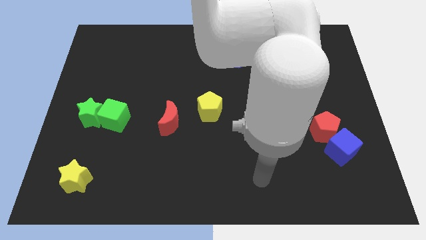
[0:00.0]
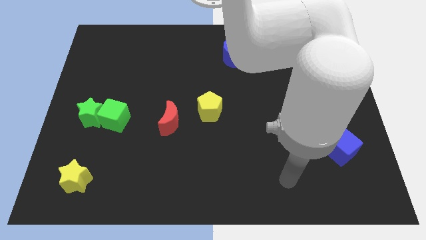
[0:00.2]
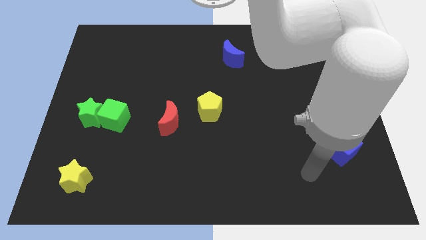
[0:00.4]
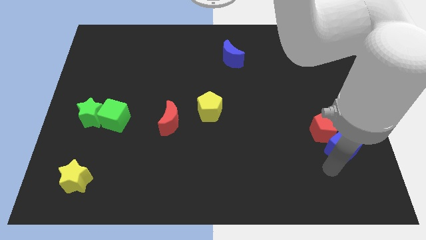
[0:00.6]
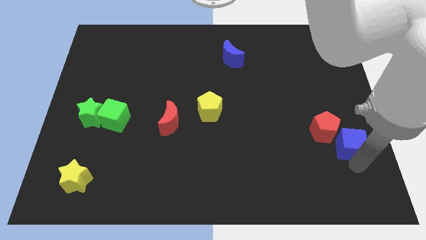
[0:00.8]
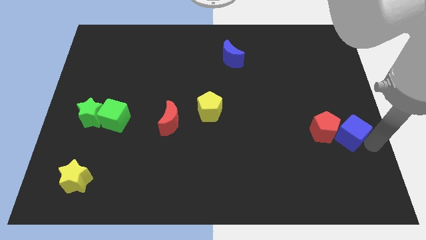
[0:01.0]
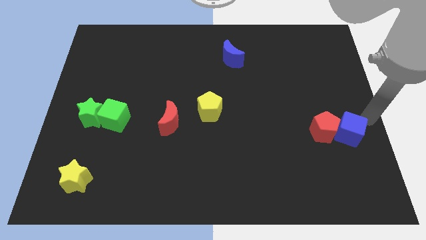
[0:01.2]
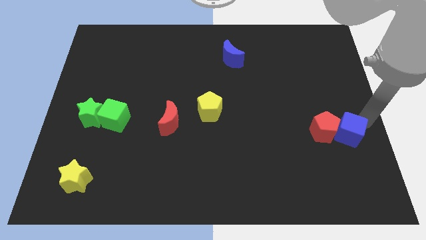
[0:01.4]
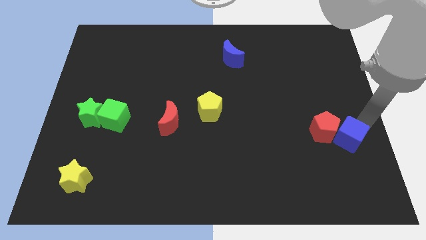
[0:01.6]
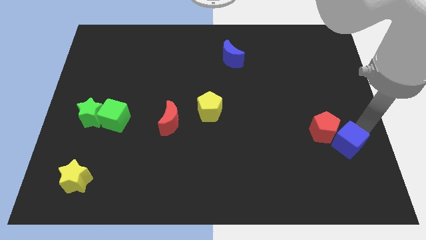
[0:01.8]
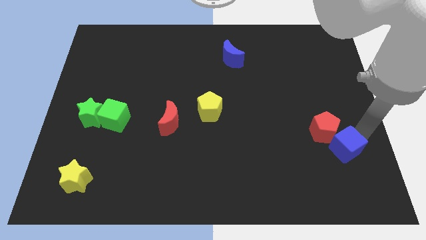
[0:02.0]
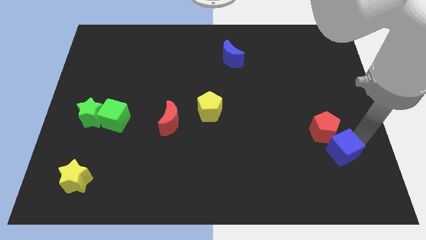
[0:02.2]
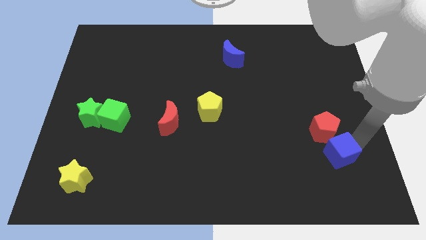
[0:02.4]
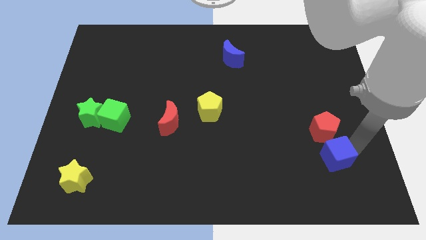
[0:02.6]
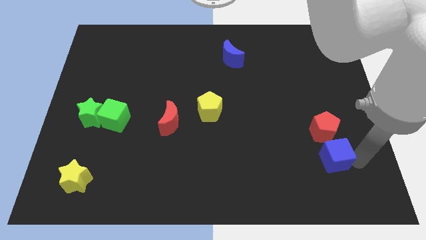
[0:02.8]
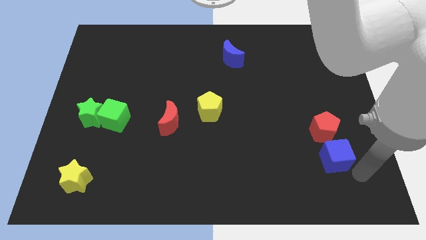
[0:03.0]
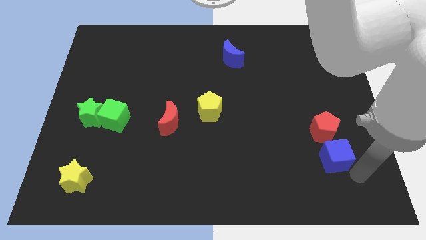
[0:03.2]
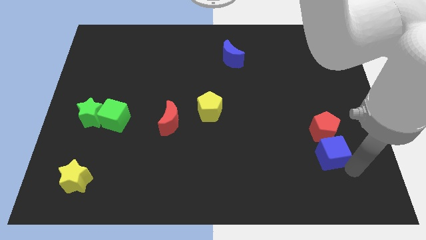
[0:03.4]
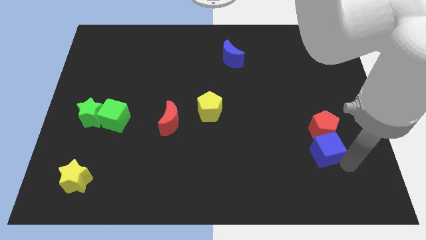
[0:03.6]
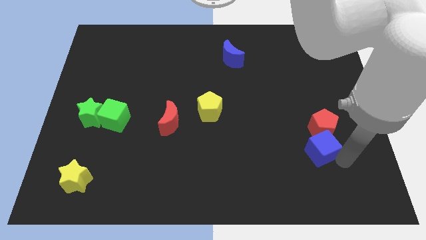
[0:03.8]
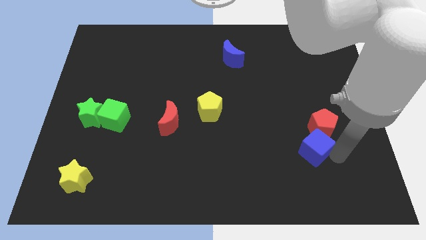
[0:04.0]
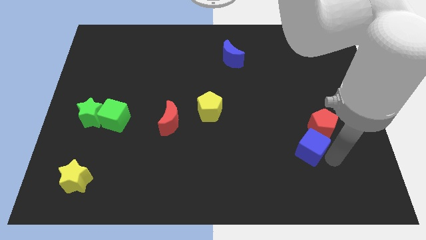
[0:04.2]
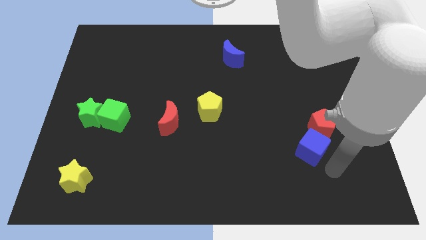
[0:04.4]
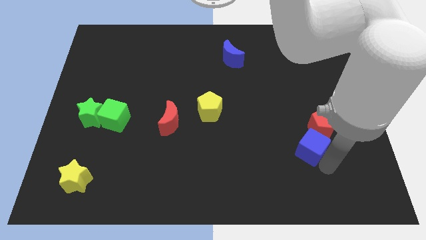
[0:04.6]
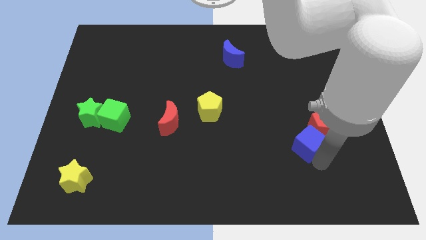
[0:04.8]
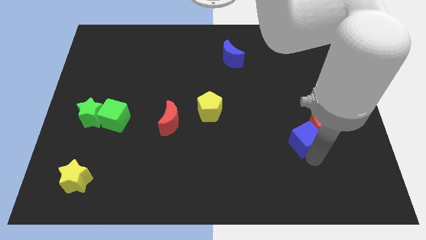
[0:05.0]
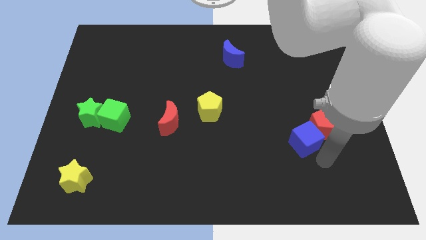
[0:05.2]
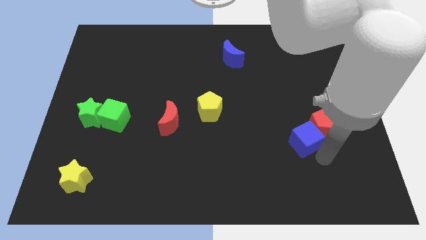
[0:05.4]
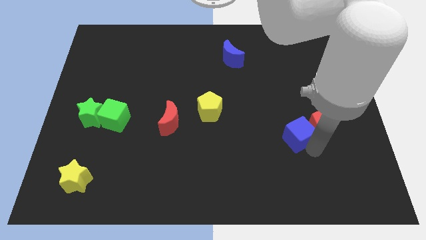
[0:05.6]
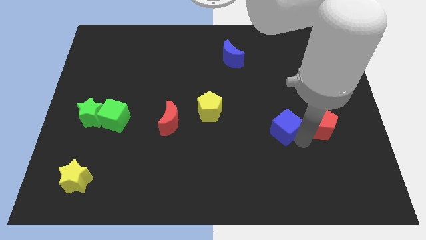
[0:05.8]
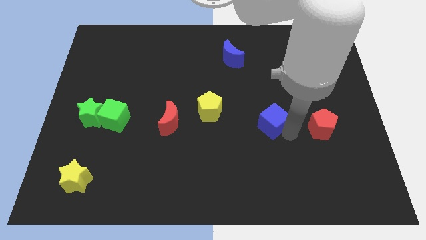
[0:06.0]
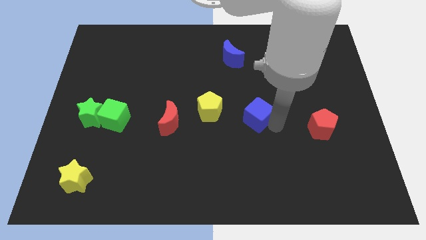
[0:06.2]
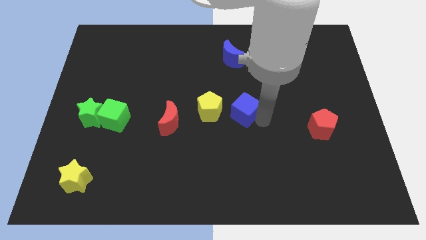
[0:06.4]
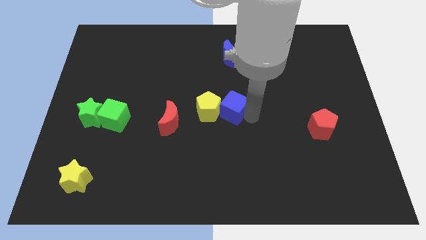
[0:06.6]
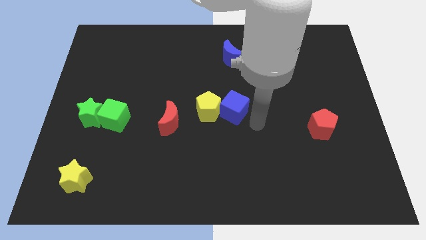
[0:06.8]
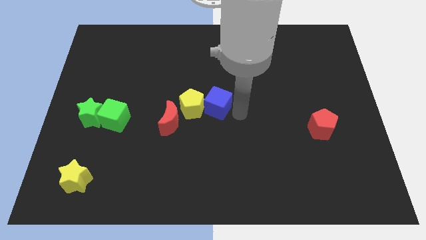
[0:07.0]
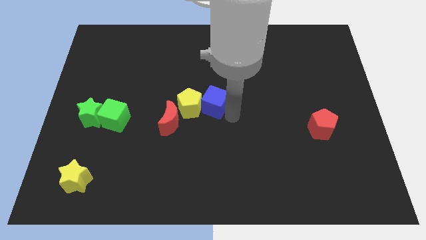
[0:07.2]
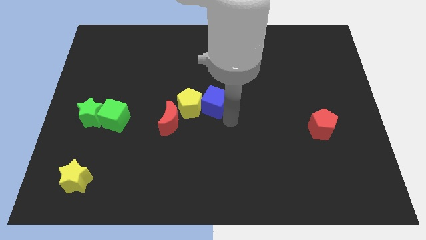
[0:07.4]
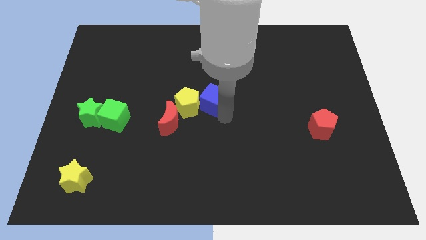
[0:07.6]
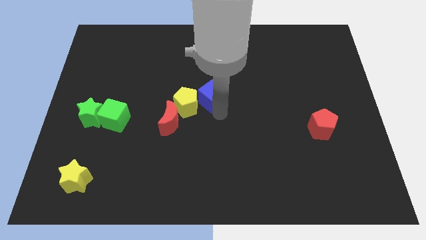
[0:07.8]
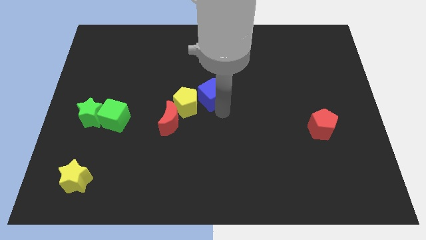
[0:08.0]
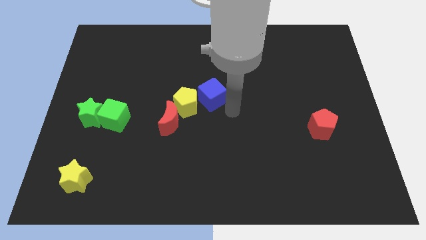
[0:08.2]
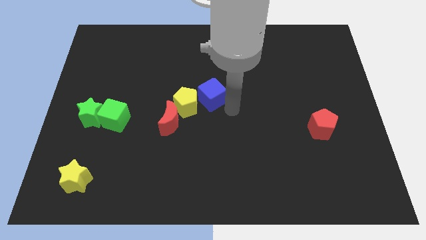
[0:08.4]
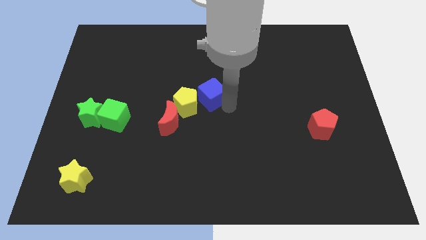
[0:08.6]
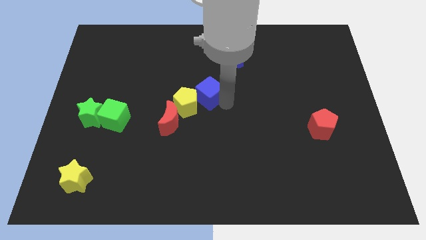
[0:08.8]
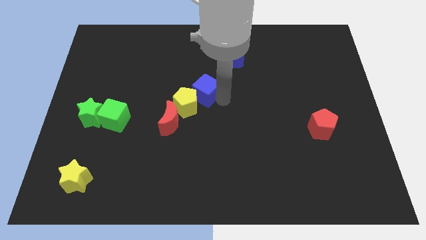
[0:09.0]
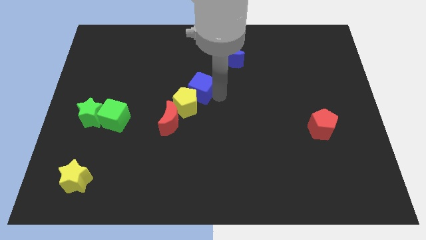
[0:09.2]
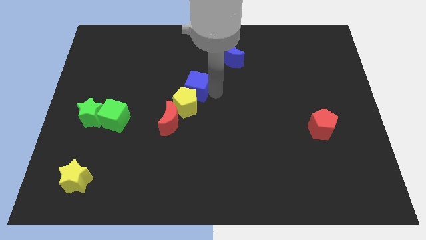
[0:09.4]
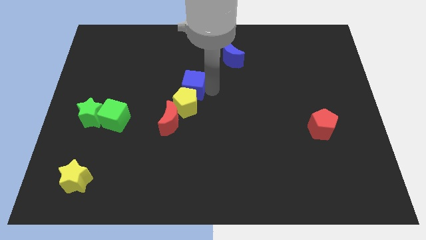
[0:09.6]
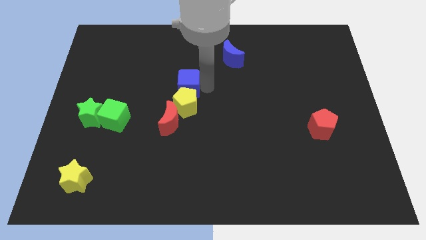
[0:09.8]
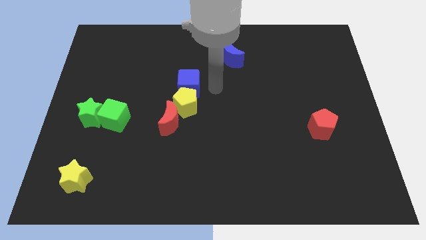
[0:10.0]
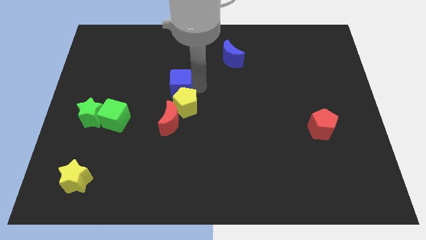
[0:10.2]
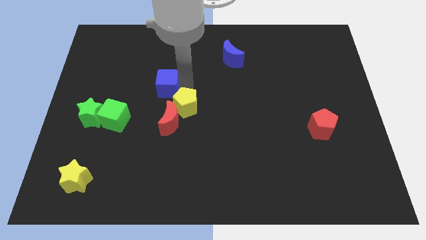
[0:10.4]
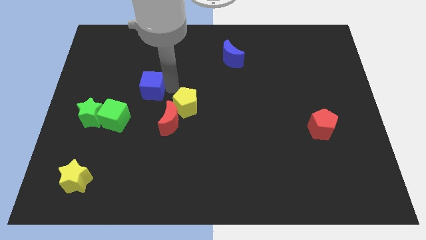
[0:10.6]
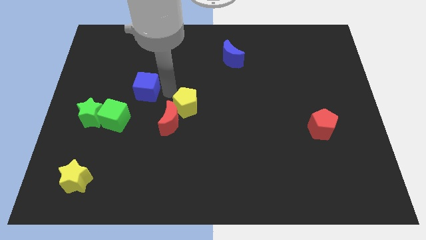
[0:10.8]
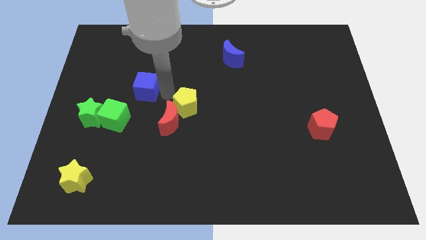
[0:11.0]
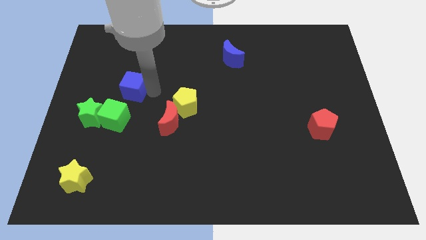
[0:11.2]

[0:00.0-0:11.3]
move the blue cube to the top side of the green cube

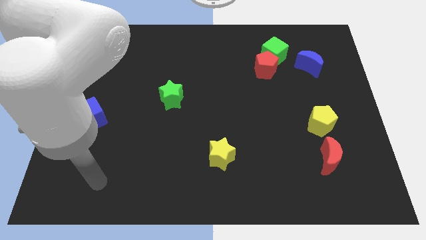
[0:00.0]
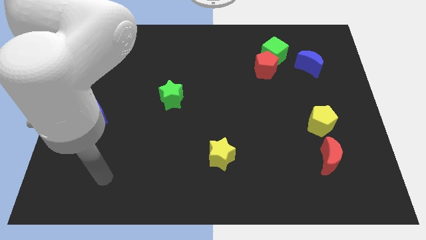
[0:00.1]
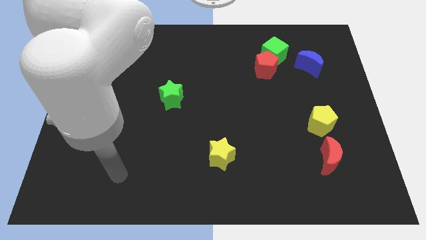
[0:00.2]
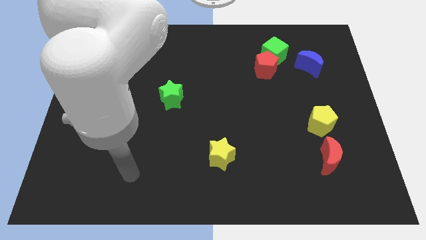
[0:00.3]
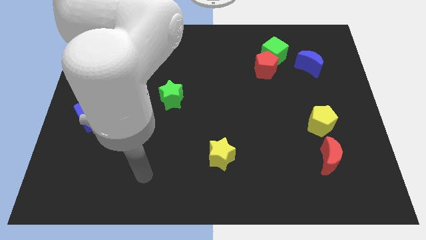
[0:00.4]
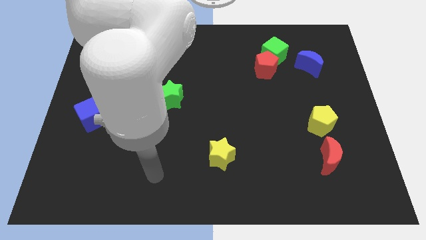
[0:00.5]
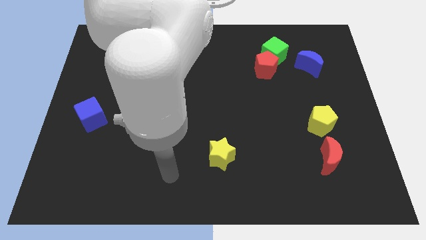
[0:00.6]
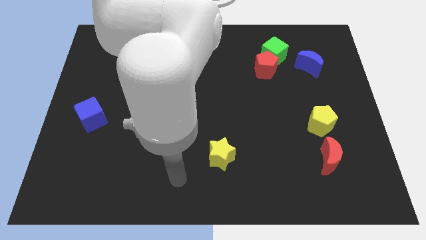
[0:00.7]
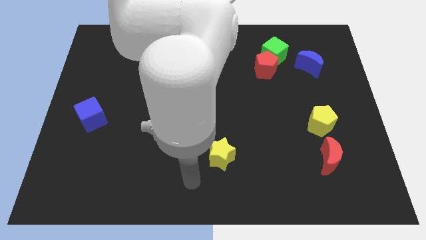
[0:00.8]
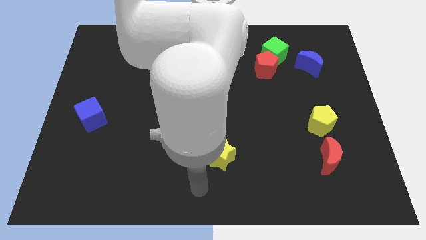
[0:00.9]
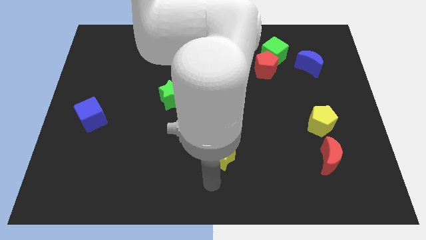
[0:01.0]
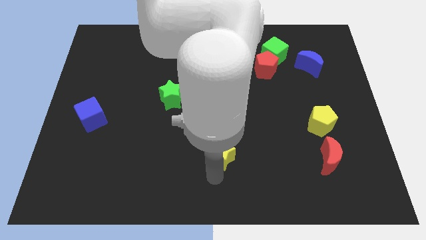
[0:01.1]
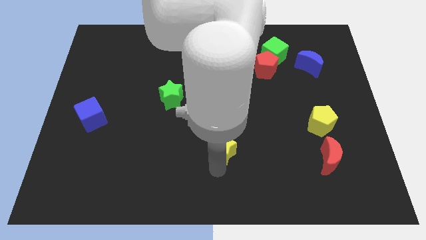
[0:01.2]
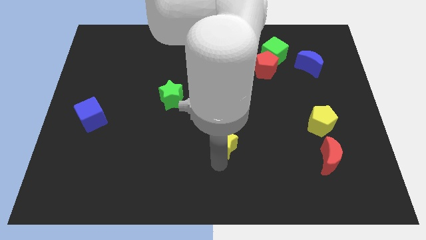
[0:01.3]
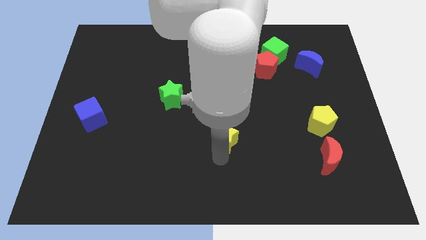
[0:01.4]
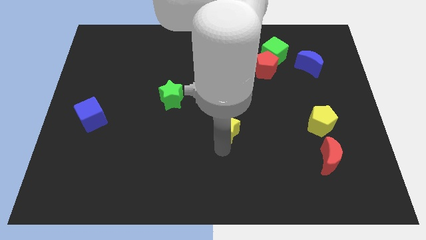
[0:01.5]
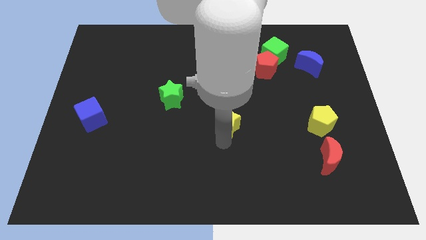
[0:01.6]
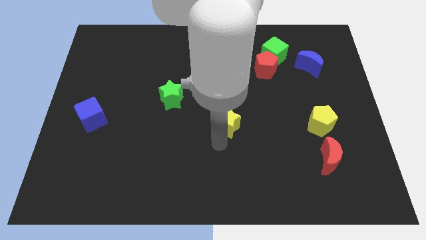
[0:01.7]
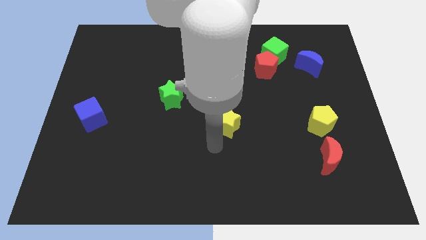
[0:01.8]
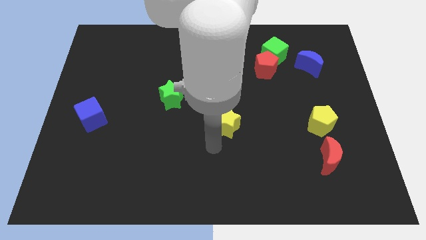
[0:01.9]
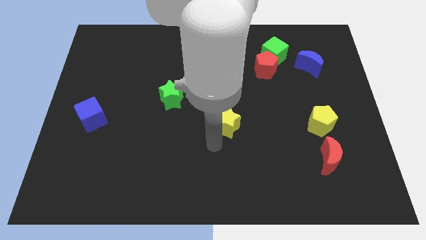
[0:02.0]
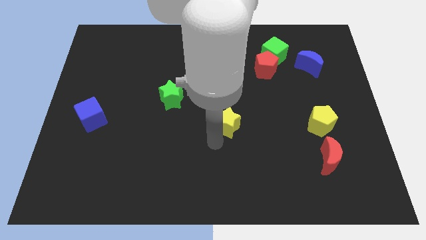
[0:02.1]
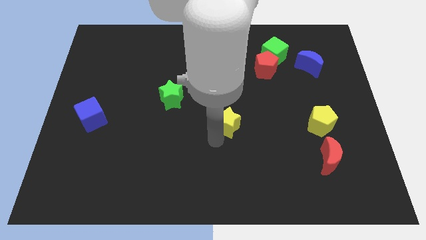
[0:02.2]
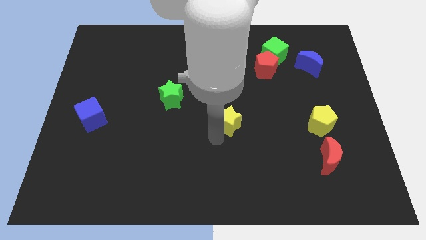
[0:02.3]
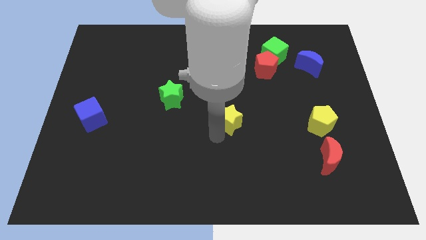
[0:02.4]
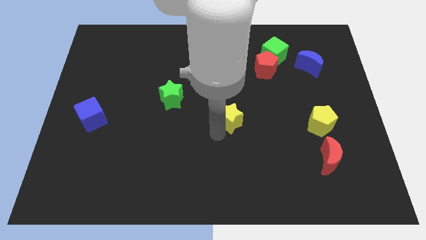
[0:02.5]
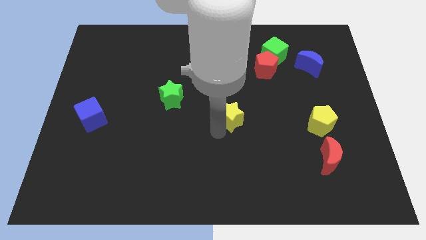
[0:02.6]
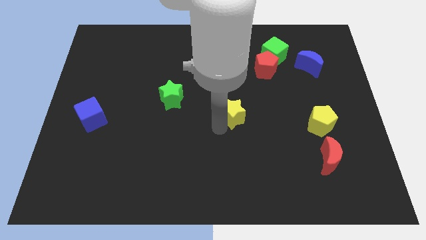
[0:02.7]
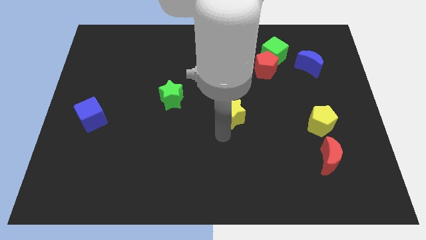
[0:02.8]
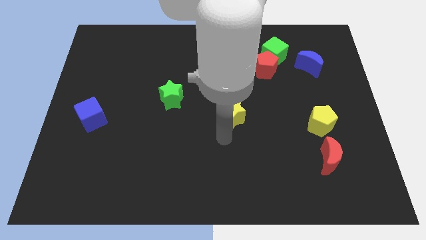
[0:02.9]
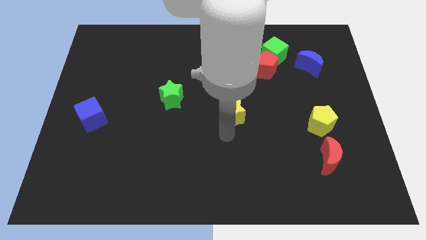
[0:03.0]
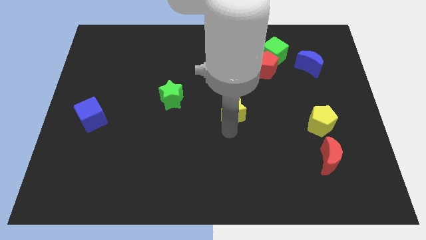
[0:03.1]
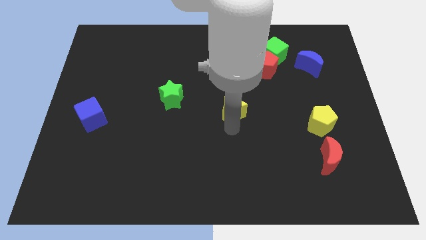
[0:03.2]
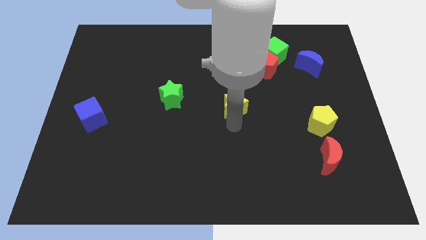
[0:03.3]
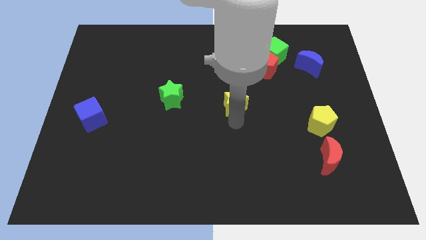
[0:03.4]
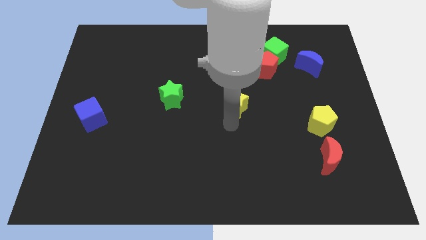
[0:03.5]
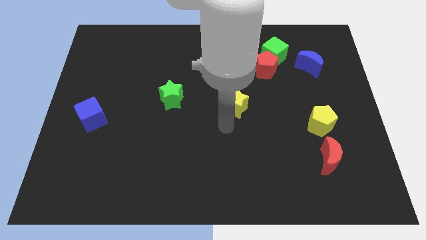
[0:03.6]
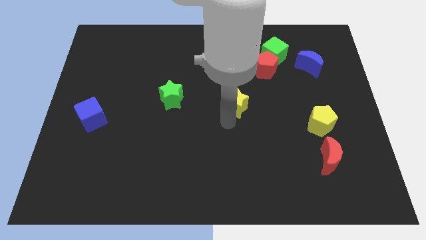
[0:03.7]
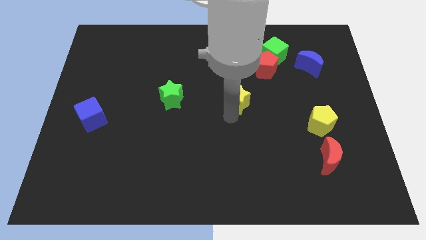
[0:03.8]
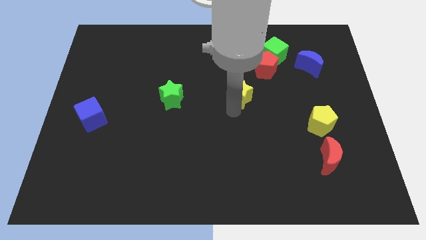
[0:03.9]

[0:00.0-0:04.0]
put the yellow star to the bottom left side of the red pentagon
